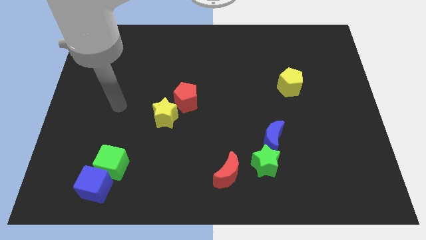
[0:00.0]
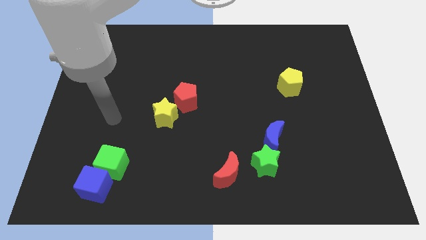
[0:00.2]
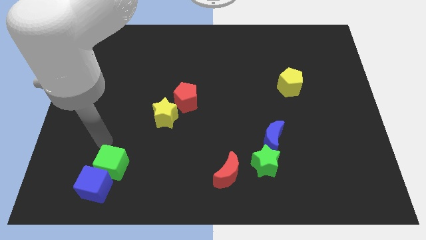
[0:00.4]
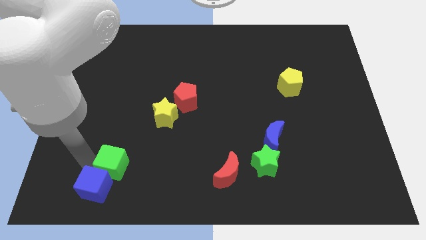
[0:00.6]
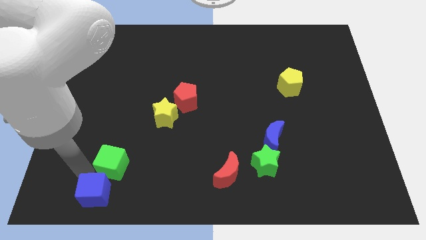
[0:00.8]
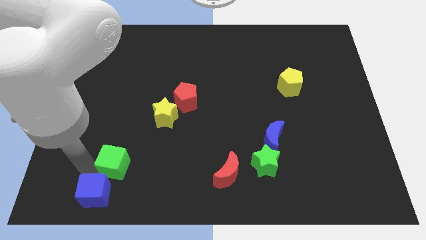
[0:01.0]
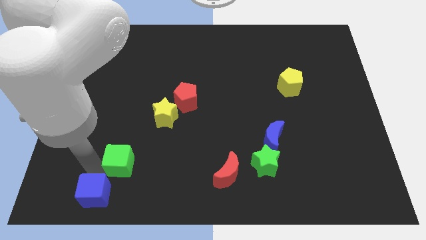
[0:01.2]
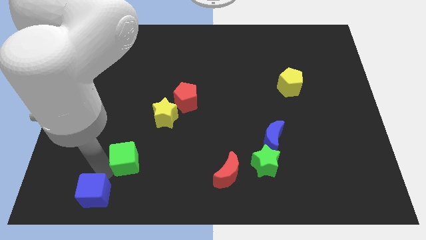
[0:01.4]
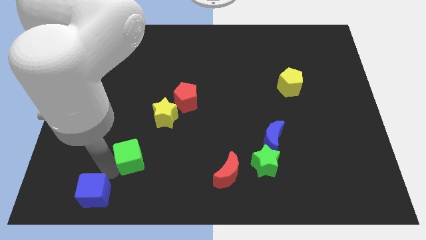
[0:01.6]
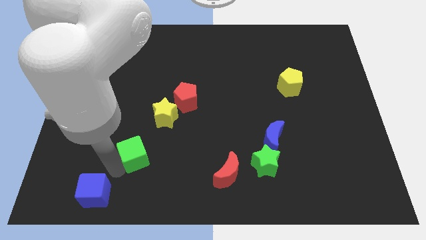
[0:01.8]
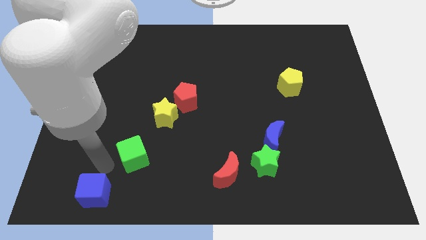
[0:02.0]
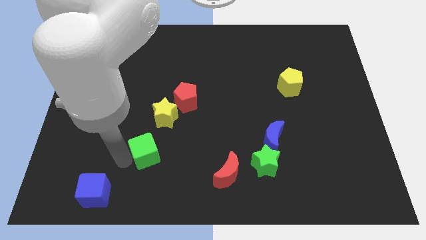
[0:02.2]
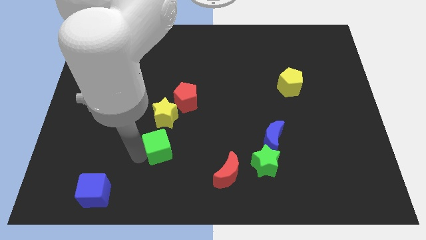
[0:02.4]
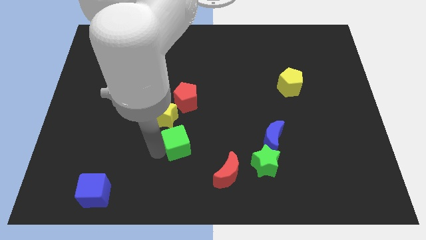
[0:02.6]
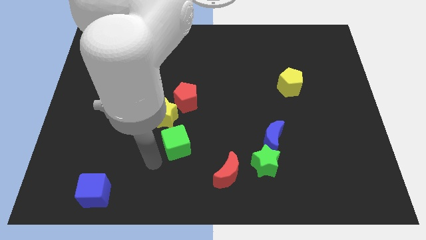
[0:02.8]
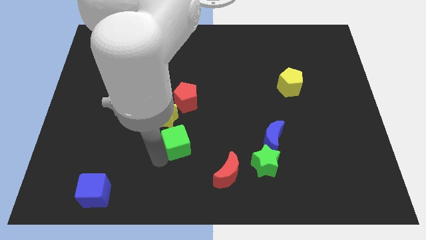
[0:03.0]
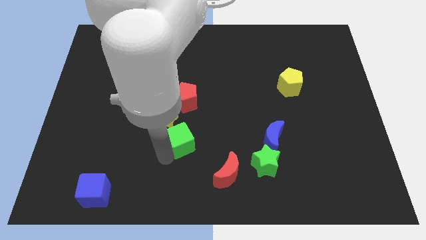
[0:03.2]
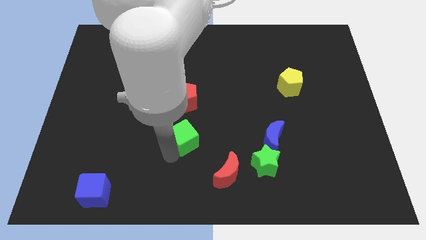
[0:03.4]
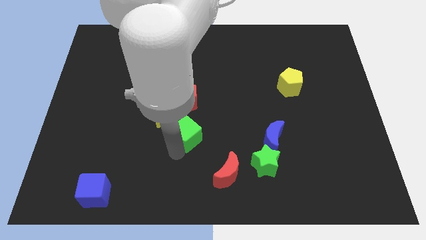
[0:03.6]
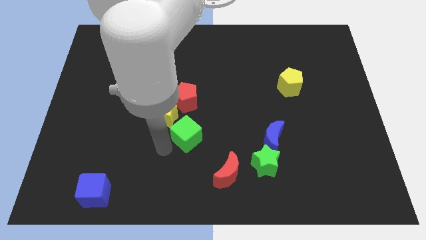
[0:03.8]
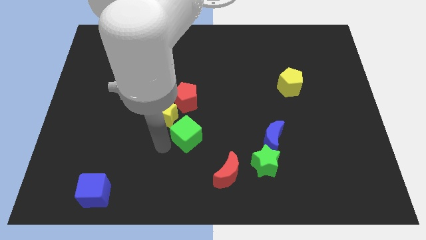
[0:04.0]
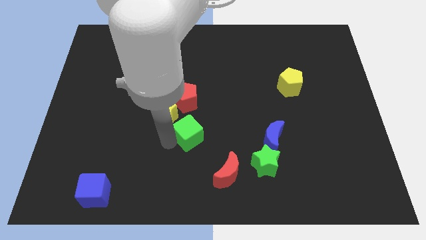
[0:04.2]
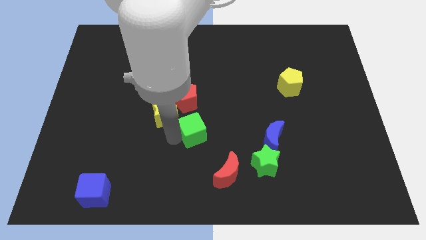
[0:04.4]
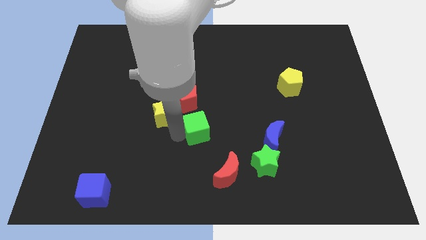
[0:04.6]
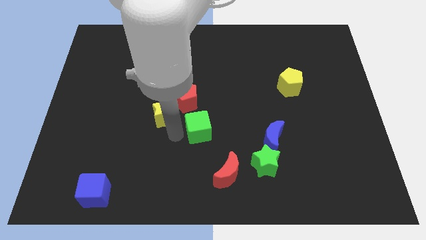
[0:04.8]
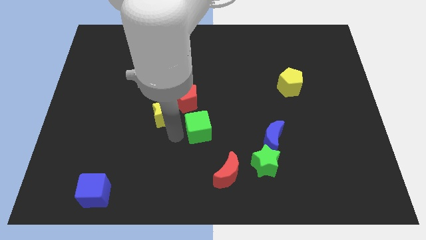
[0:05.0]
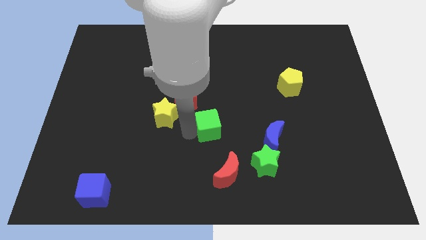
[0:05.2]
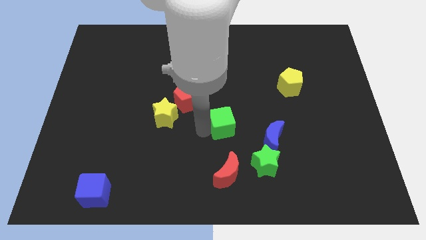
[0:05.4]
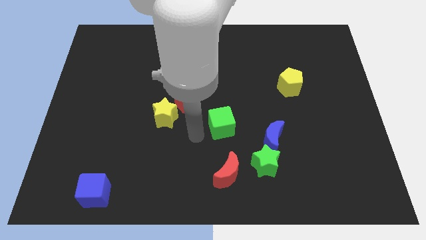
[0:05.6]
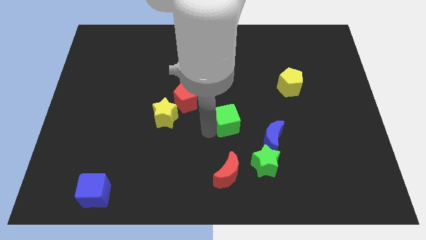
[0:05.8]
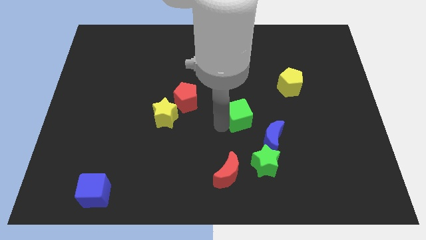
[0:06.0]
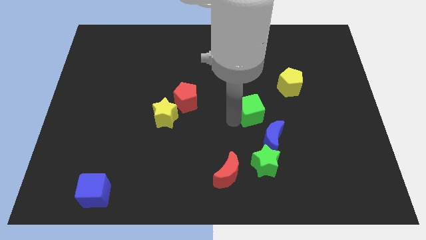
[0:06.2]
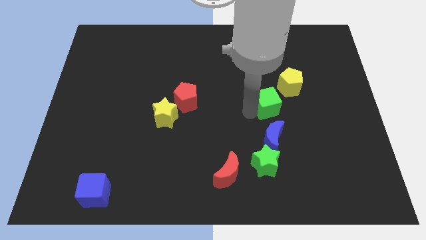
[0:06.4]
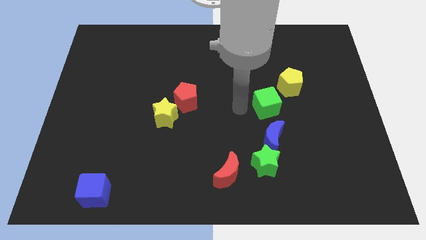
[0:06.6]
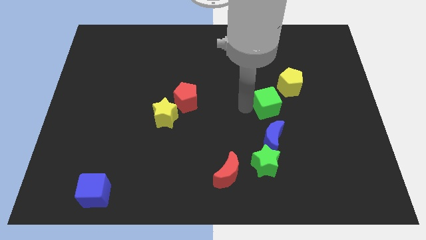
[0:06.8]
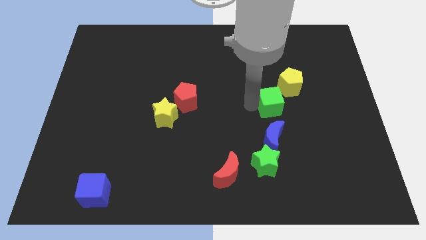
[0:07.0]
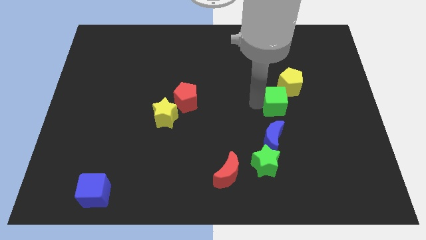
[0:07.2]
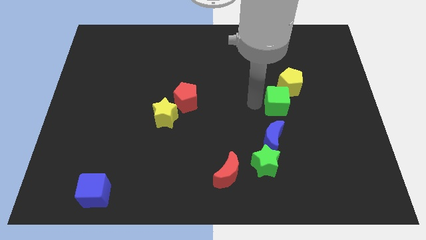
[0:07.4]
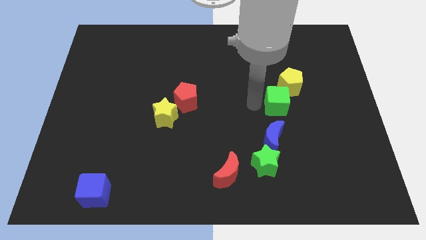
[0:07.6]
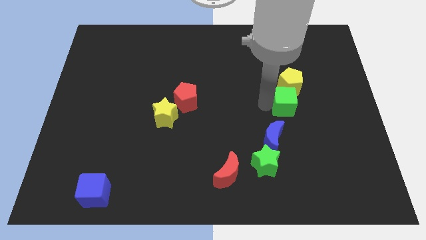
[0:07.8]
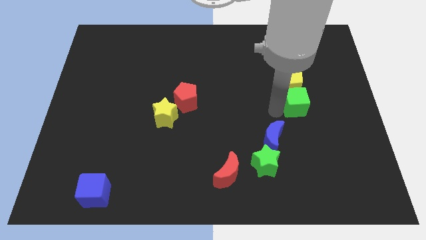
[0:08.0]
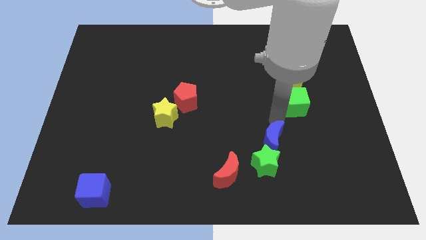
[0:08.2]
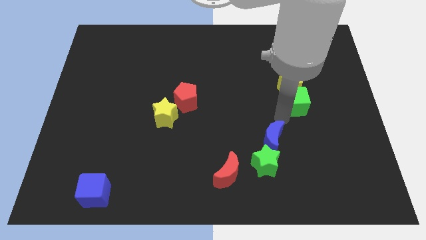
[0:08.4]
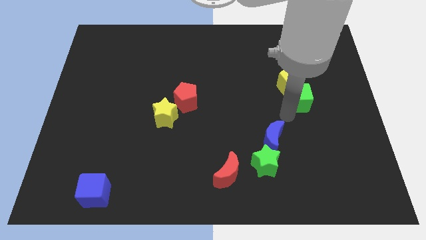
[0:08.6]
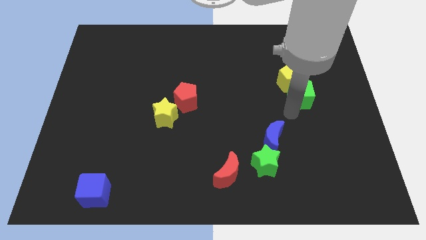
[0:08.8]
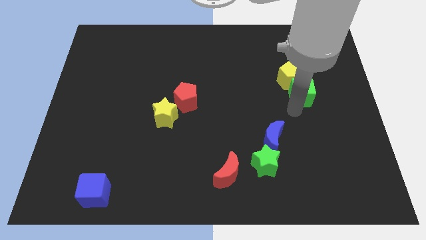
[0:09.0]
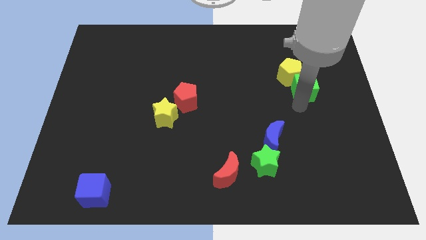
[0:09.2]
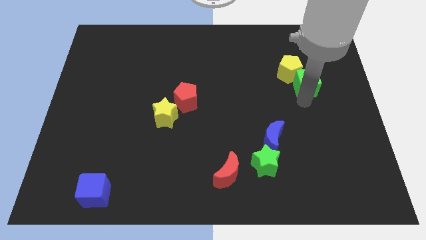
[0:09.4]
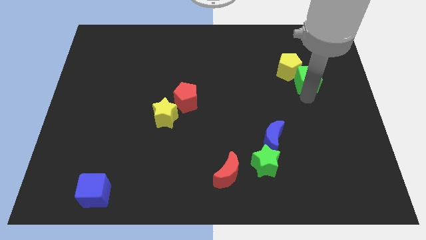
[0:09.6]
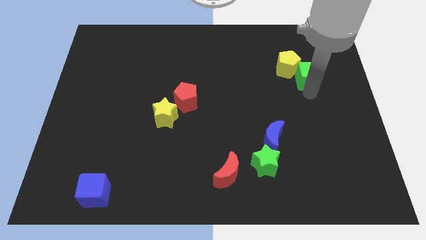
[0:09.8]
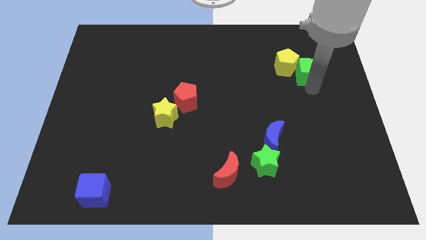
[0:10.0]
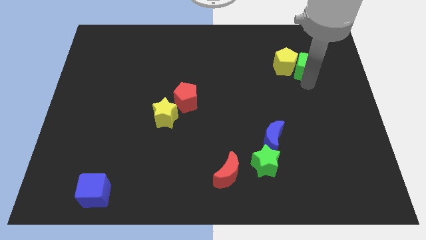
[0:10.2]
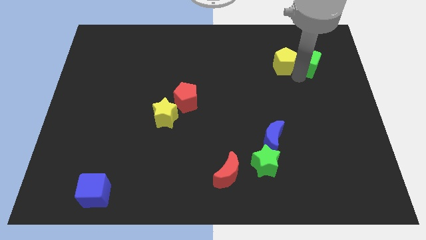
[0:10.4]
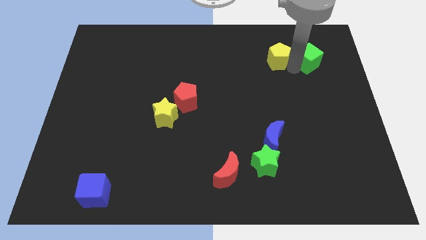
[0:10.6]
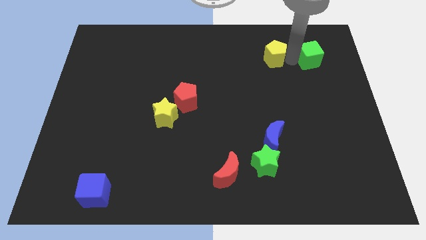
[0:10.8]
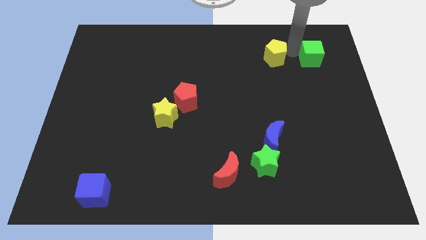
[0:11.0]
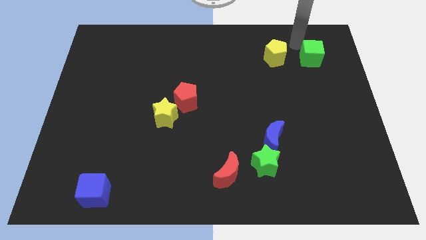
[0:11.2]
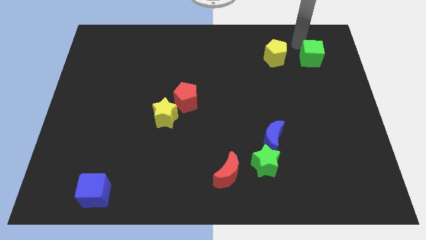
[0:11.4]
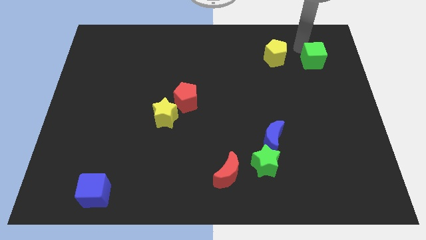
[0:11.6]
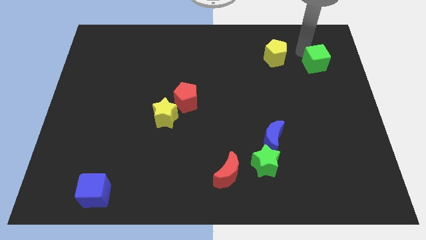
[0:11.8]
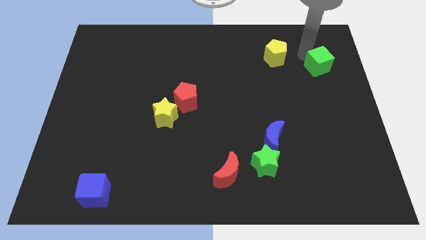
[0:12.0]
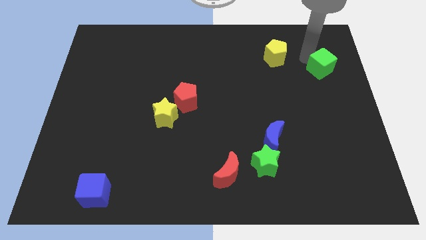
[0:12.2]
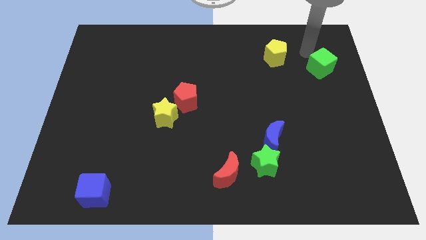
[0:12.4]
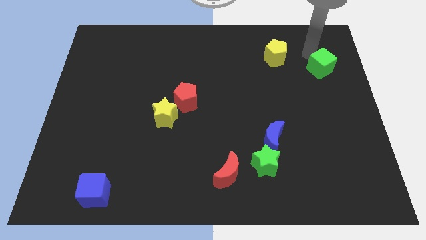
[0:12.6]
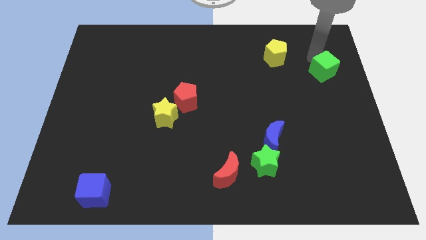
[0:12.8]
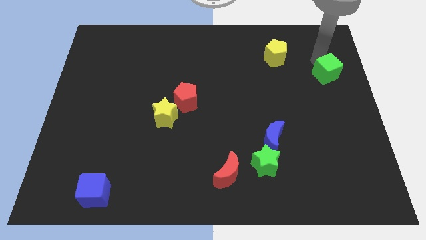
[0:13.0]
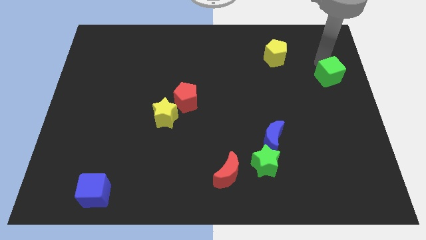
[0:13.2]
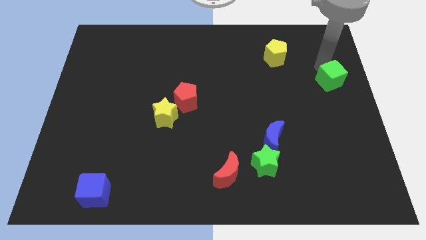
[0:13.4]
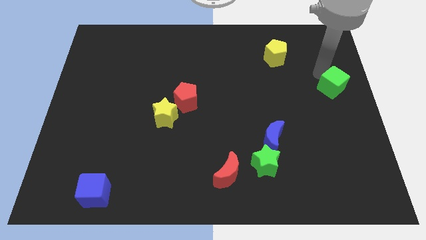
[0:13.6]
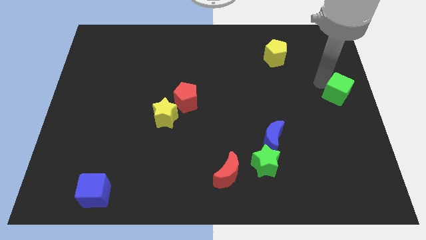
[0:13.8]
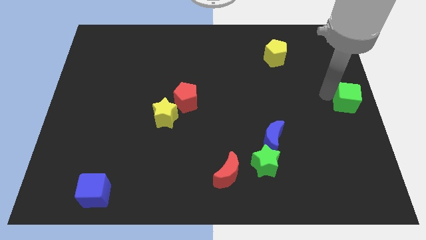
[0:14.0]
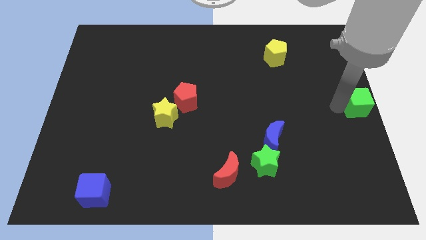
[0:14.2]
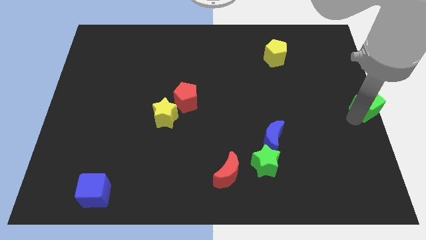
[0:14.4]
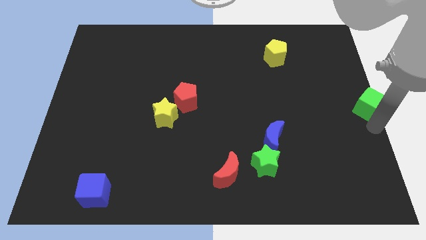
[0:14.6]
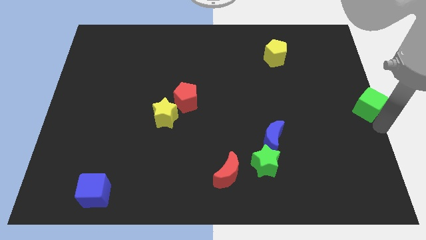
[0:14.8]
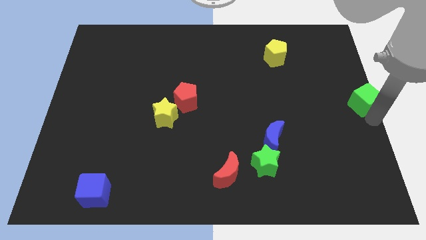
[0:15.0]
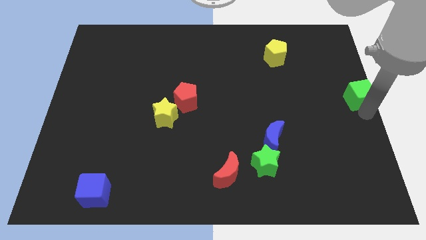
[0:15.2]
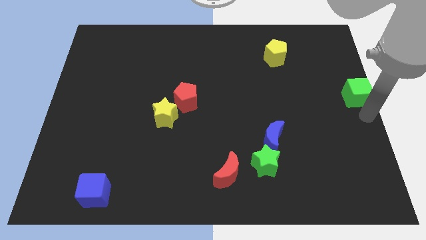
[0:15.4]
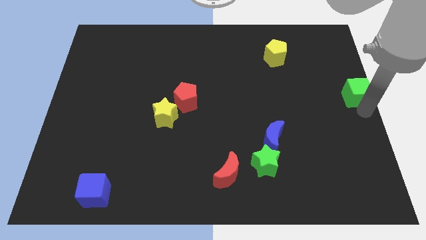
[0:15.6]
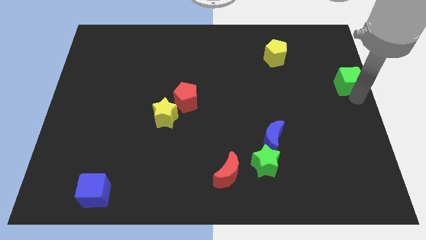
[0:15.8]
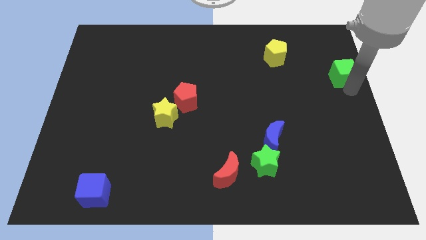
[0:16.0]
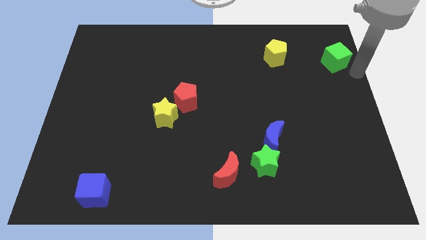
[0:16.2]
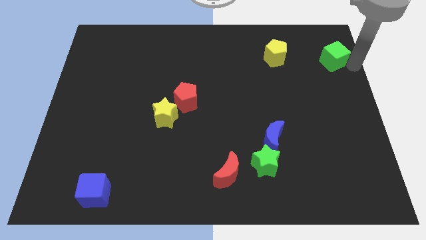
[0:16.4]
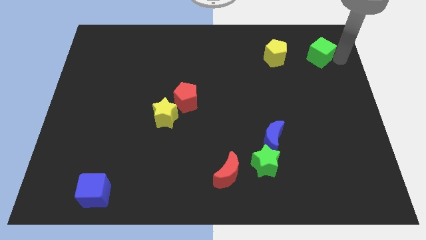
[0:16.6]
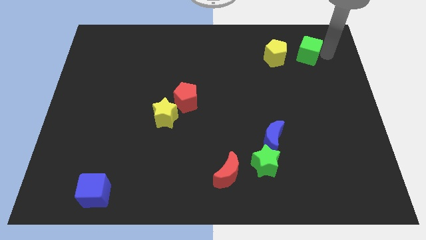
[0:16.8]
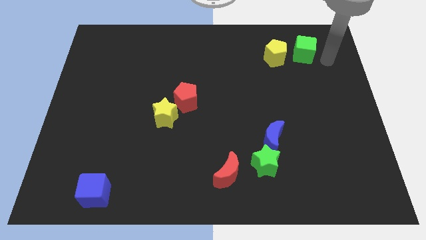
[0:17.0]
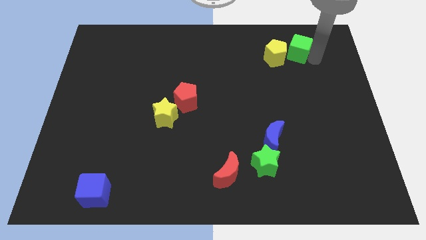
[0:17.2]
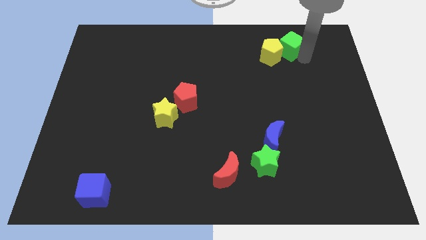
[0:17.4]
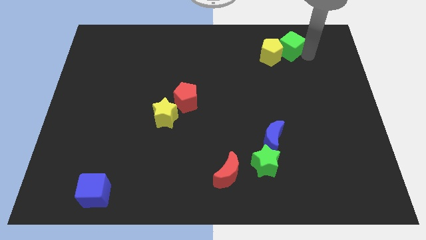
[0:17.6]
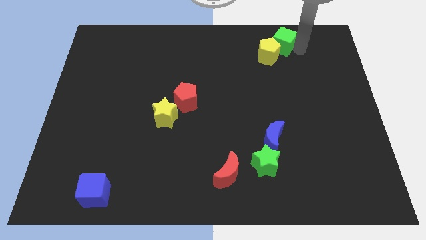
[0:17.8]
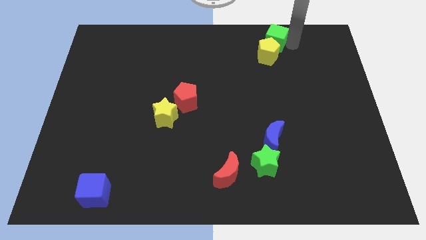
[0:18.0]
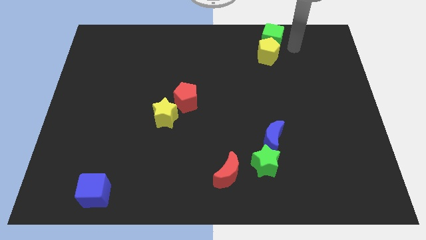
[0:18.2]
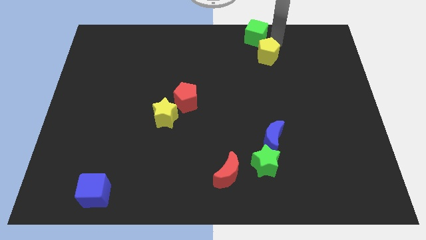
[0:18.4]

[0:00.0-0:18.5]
put the green cube to the towards your base
